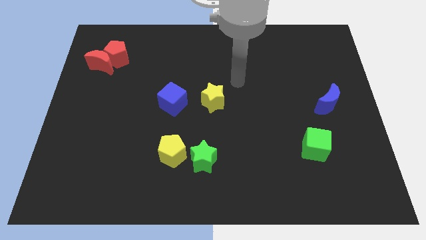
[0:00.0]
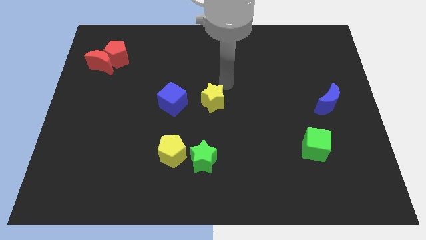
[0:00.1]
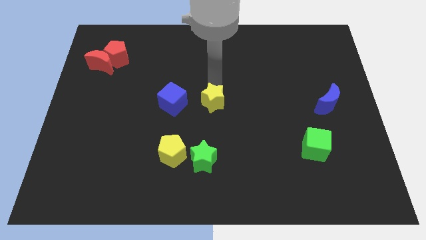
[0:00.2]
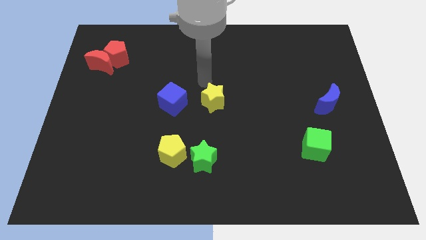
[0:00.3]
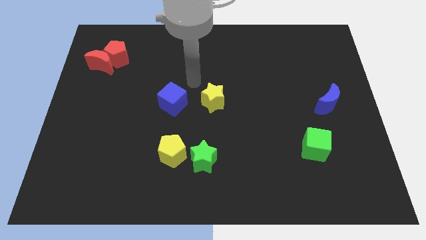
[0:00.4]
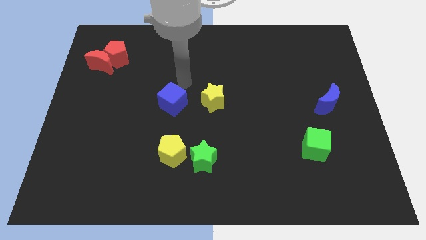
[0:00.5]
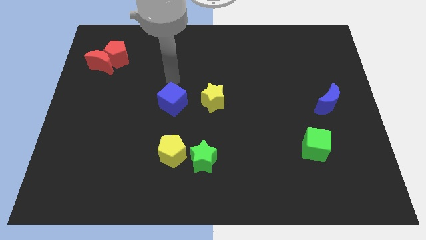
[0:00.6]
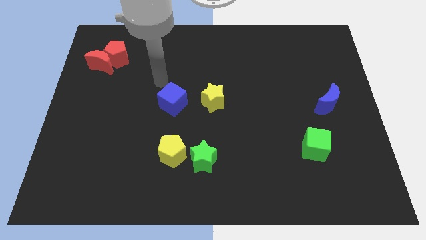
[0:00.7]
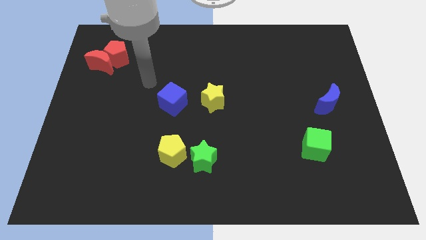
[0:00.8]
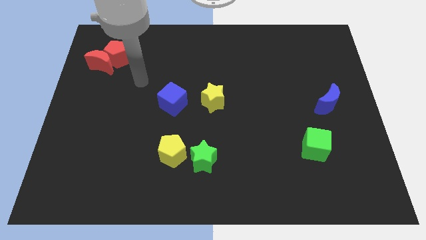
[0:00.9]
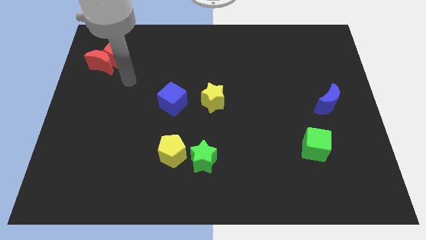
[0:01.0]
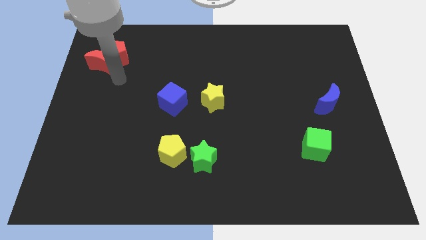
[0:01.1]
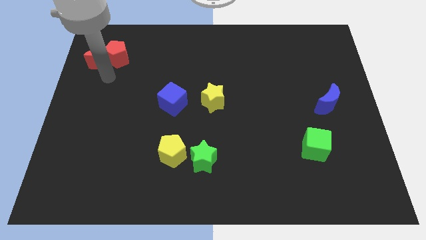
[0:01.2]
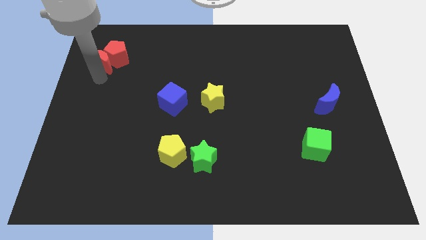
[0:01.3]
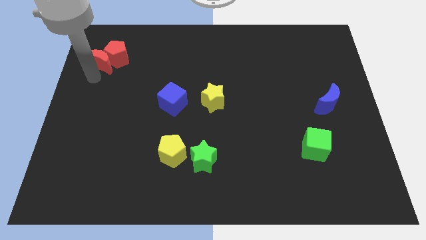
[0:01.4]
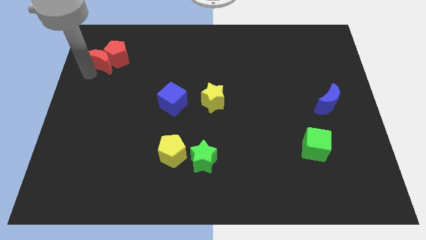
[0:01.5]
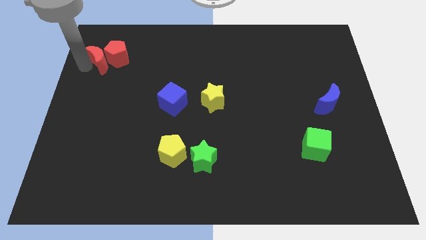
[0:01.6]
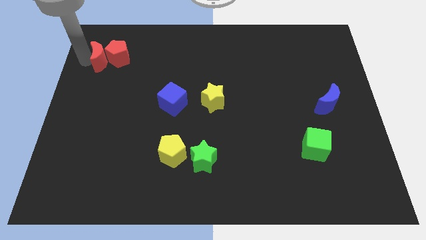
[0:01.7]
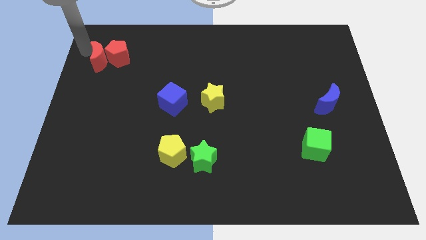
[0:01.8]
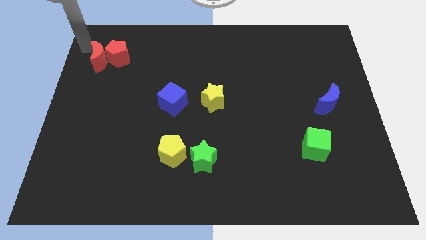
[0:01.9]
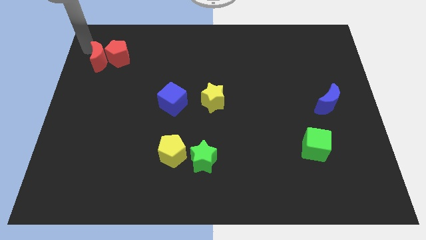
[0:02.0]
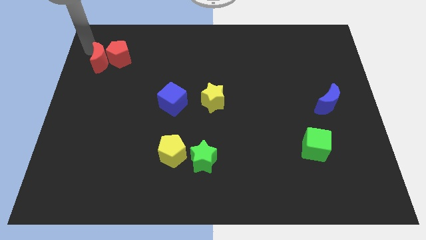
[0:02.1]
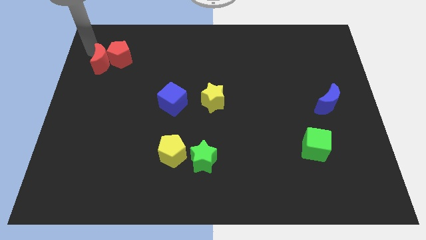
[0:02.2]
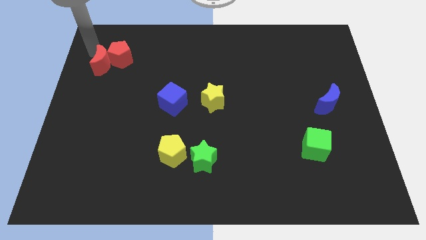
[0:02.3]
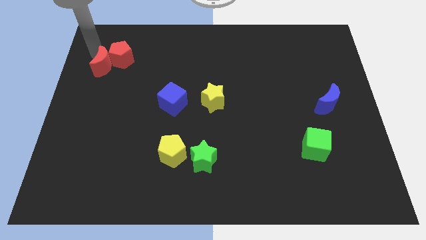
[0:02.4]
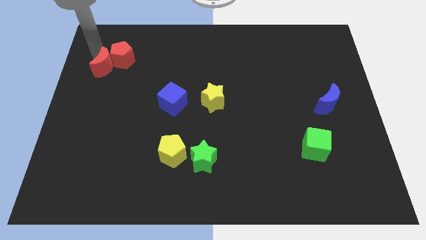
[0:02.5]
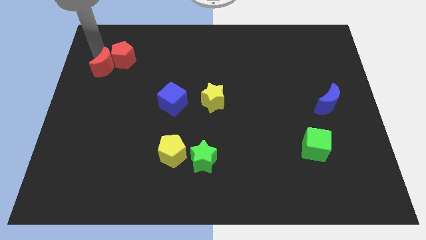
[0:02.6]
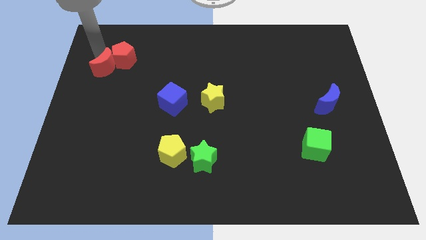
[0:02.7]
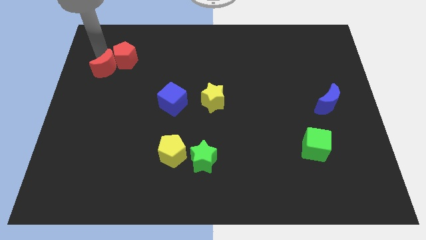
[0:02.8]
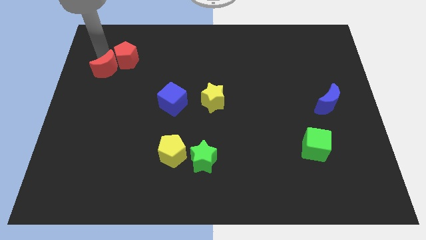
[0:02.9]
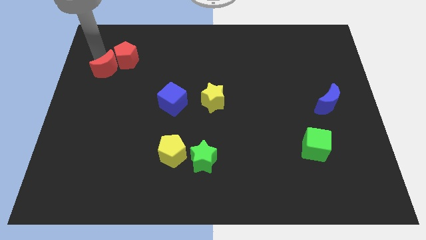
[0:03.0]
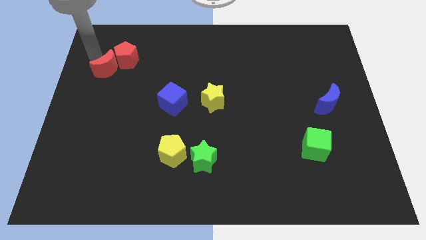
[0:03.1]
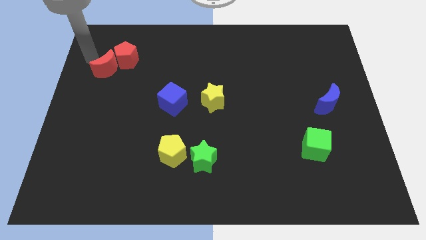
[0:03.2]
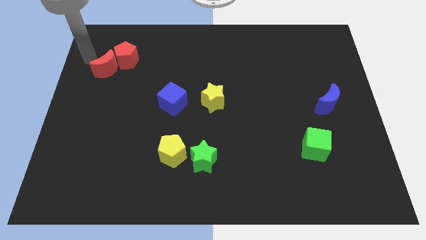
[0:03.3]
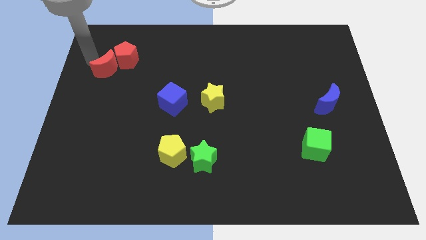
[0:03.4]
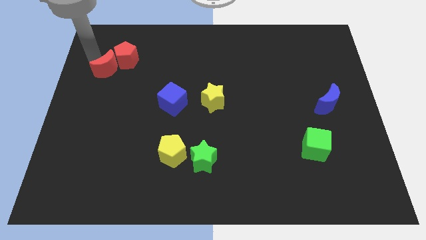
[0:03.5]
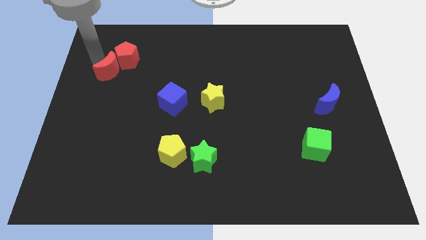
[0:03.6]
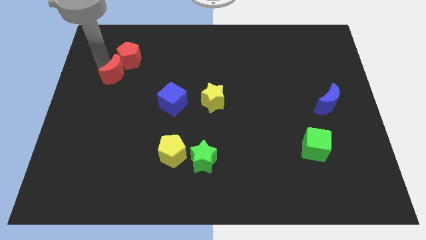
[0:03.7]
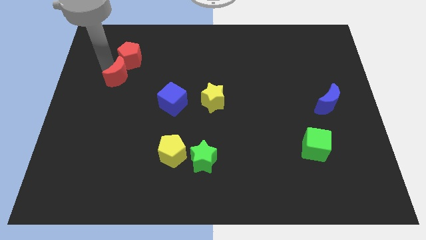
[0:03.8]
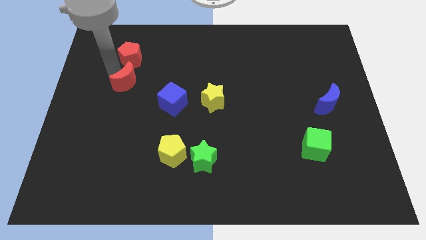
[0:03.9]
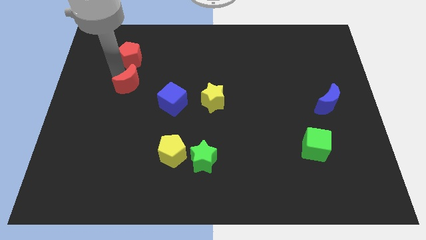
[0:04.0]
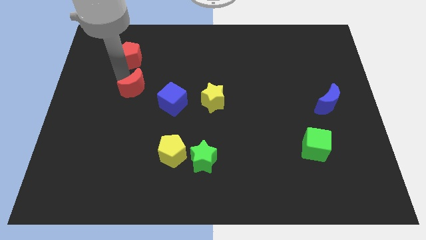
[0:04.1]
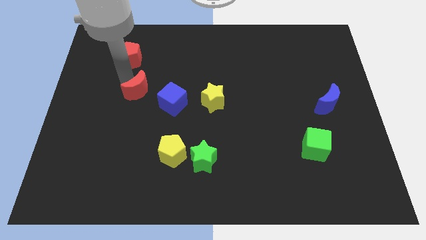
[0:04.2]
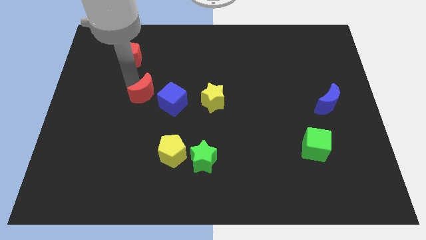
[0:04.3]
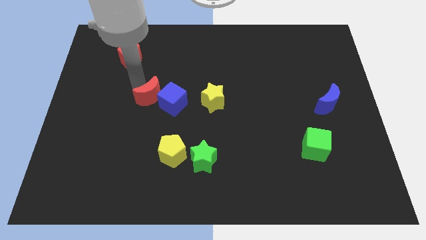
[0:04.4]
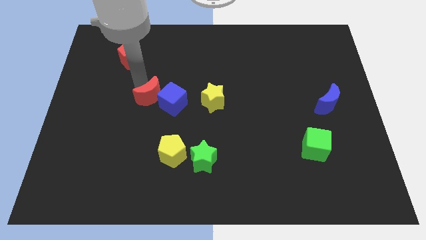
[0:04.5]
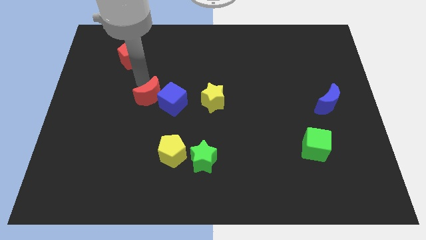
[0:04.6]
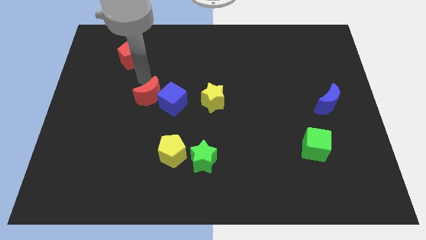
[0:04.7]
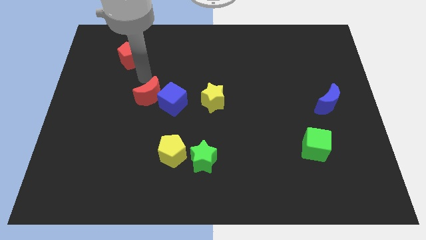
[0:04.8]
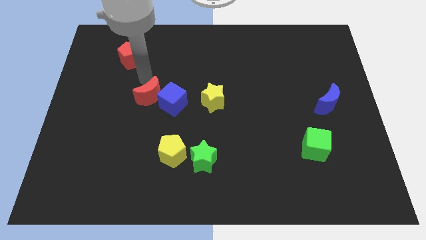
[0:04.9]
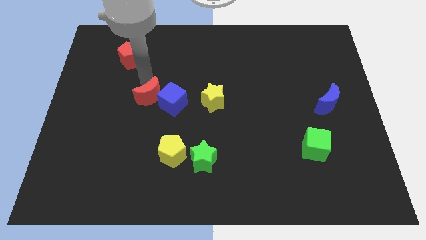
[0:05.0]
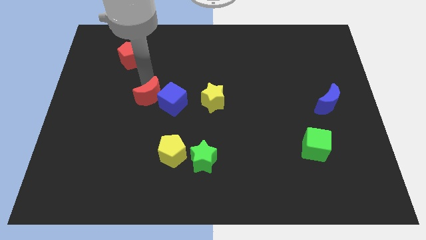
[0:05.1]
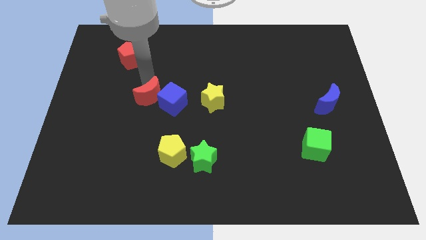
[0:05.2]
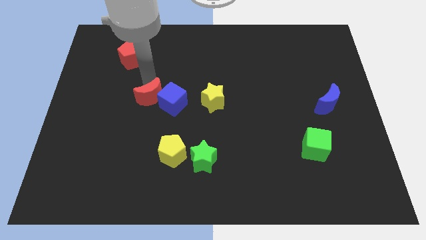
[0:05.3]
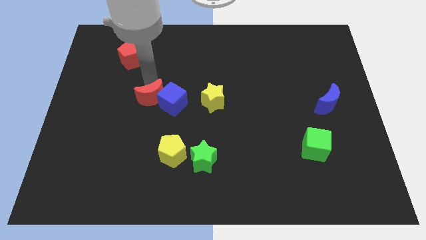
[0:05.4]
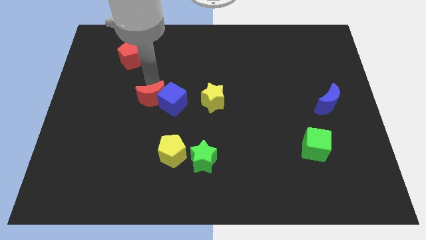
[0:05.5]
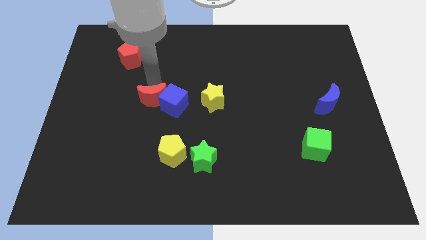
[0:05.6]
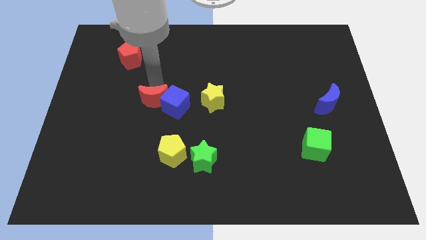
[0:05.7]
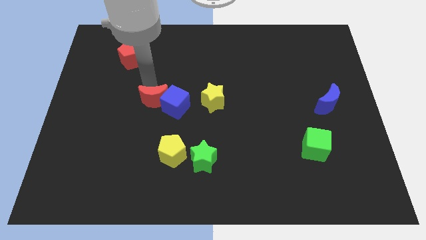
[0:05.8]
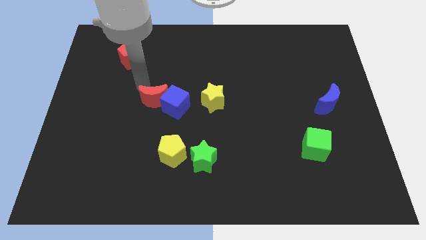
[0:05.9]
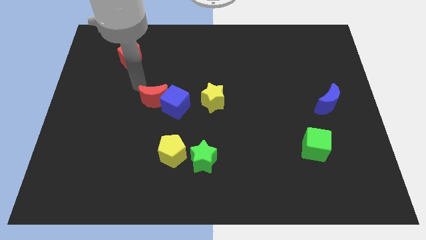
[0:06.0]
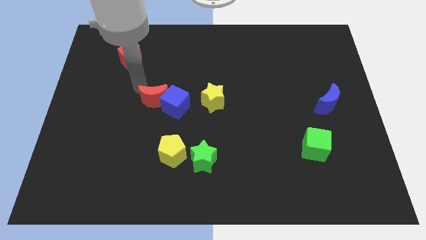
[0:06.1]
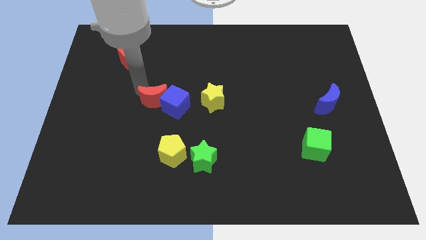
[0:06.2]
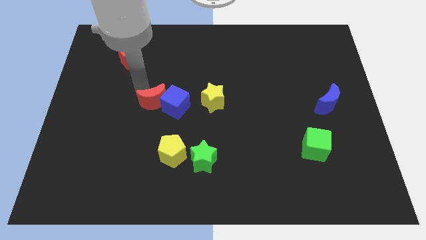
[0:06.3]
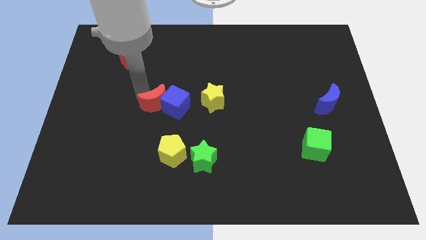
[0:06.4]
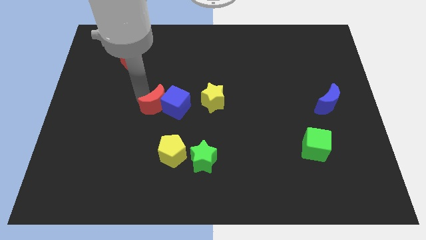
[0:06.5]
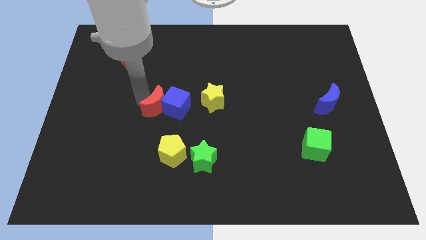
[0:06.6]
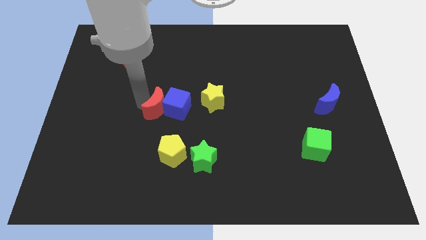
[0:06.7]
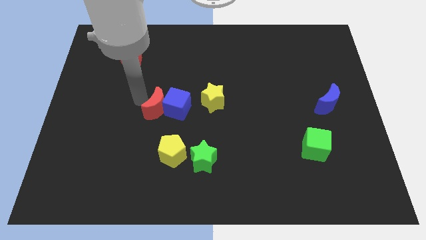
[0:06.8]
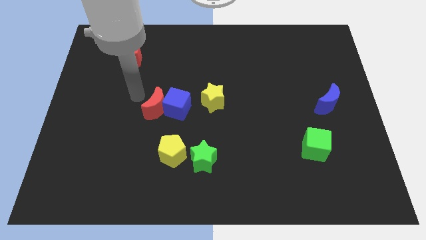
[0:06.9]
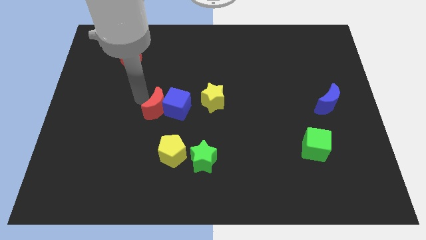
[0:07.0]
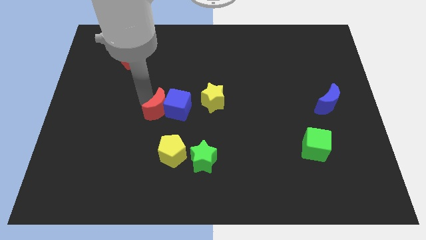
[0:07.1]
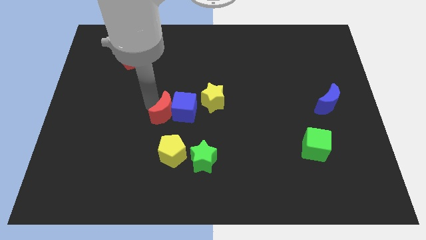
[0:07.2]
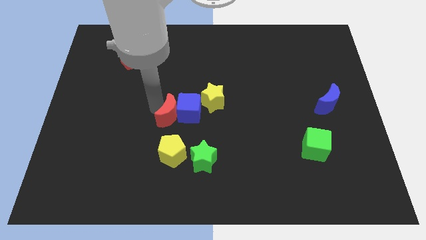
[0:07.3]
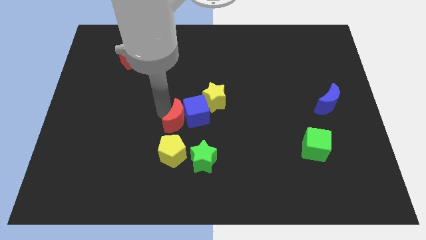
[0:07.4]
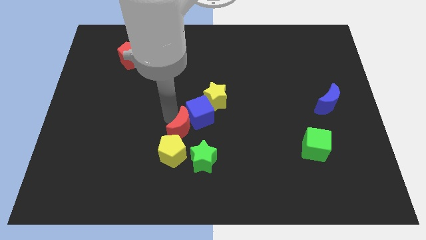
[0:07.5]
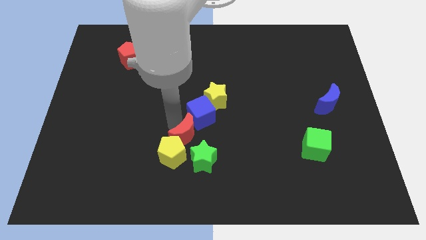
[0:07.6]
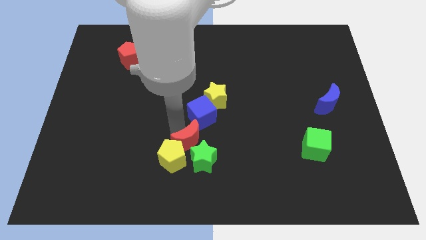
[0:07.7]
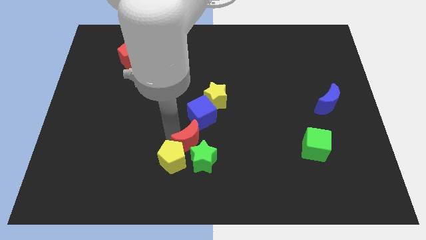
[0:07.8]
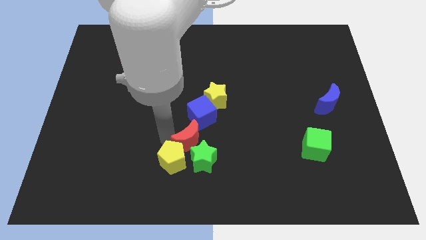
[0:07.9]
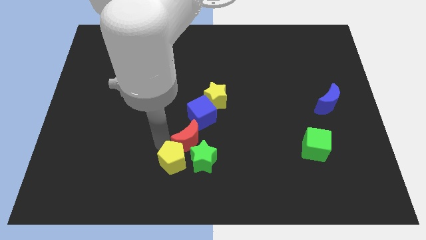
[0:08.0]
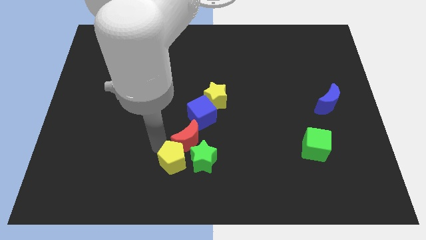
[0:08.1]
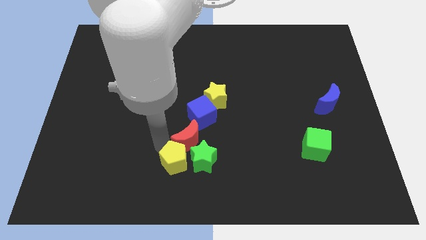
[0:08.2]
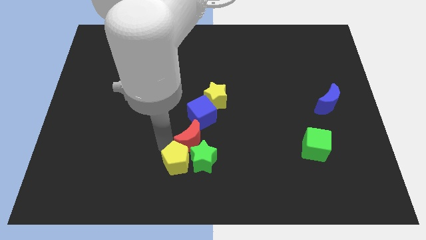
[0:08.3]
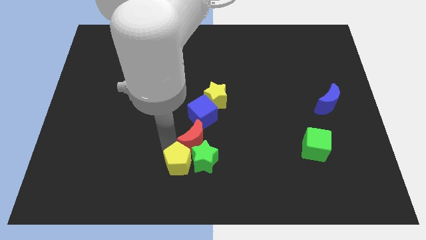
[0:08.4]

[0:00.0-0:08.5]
put the red moon below the yellow star
